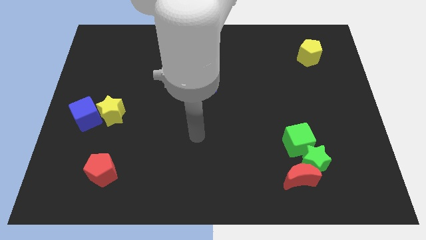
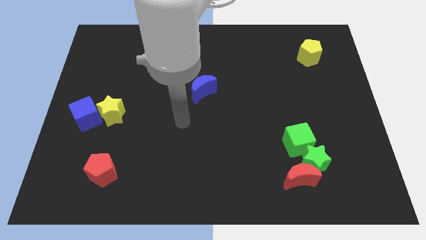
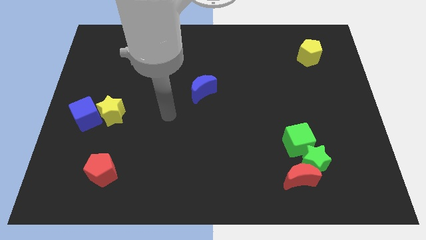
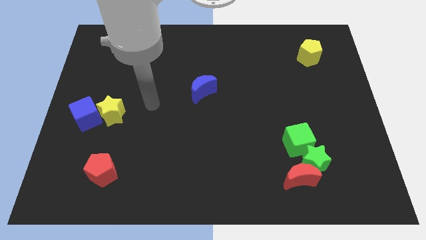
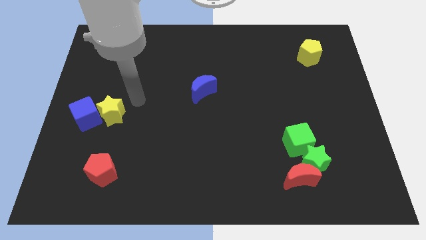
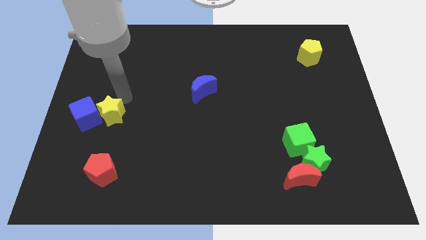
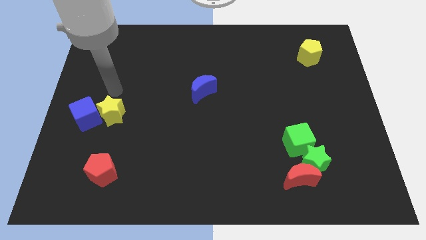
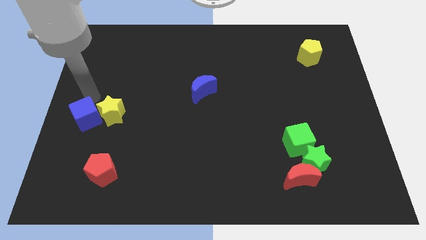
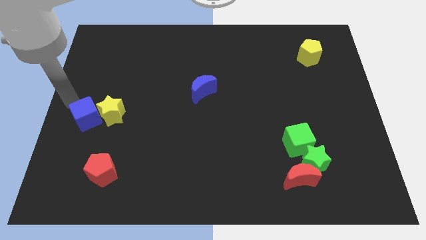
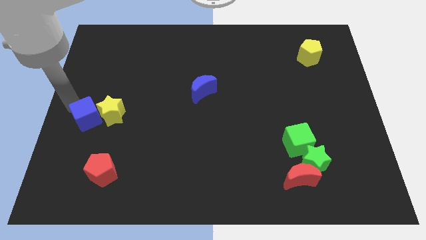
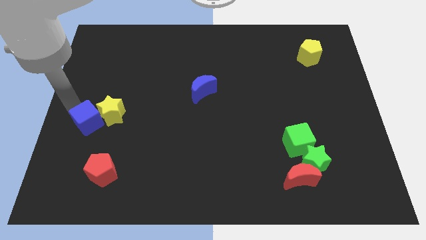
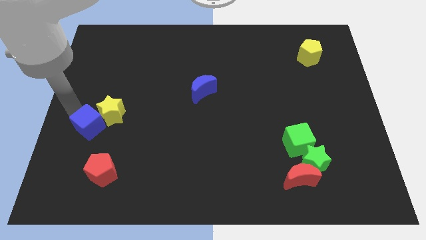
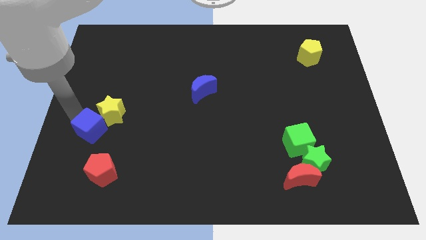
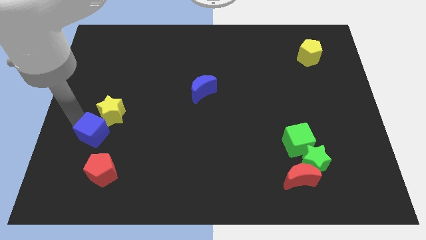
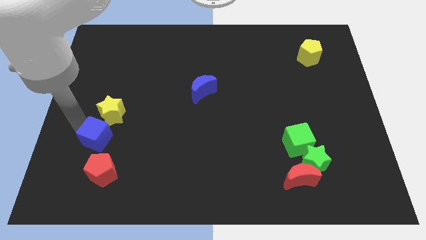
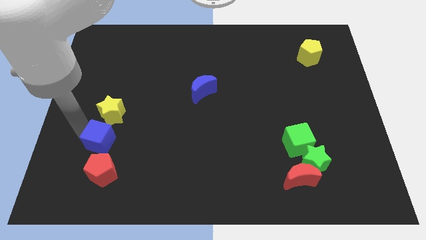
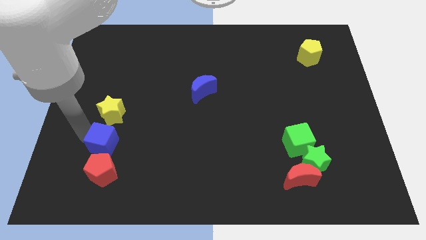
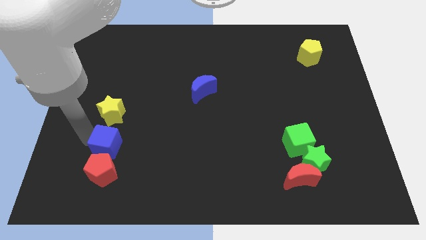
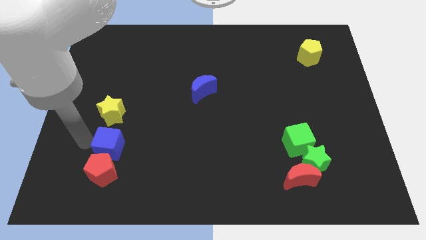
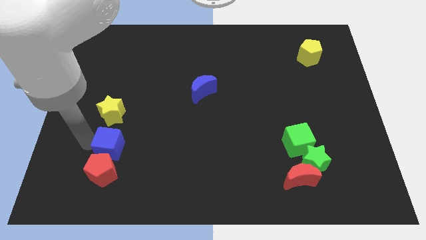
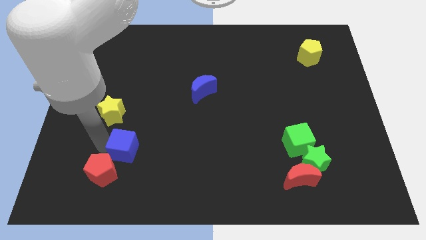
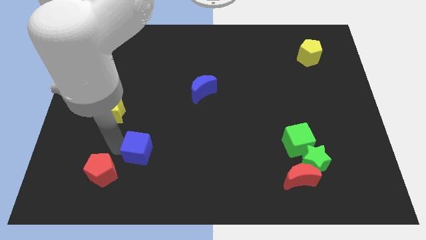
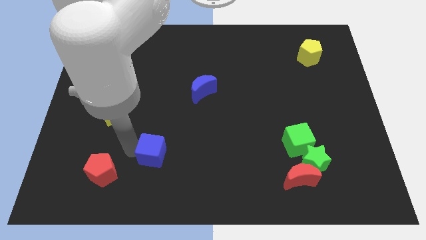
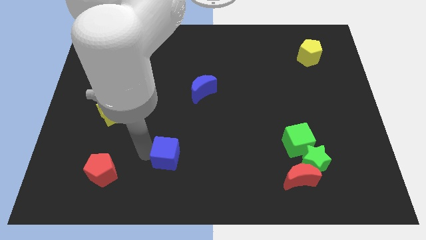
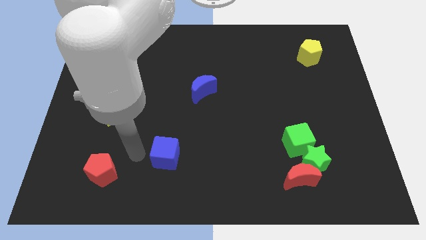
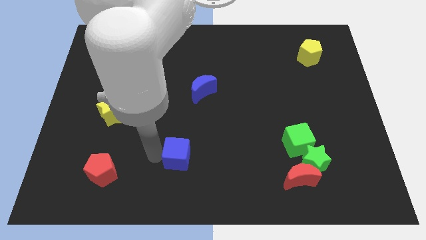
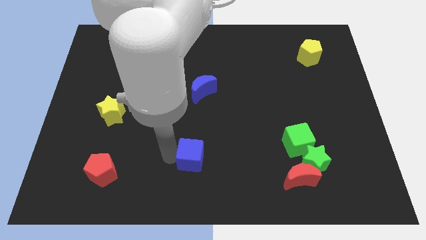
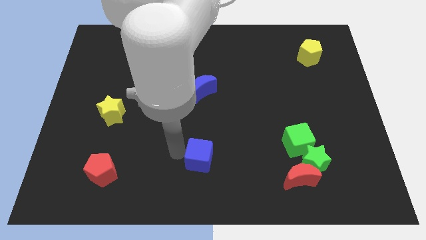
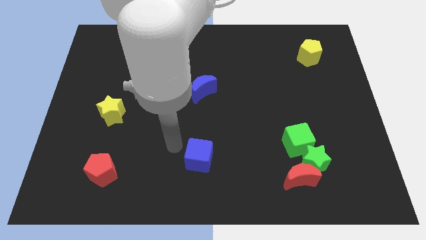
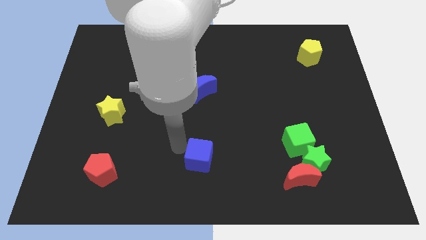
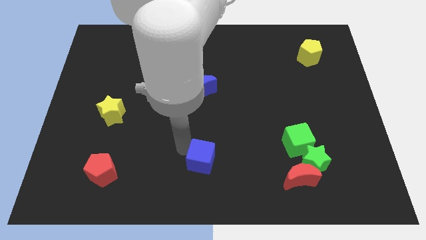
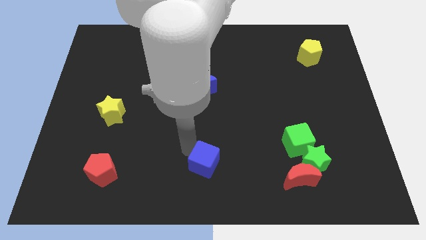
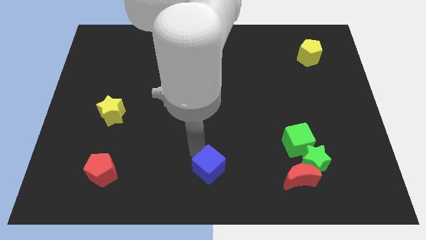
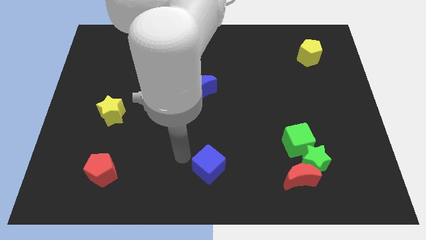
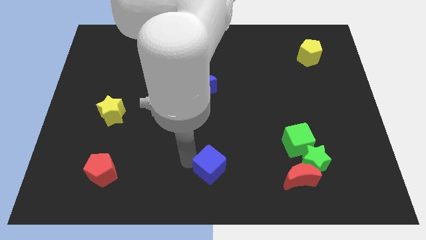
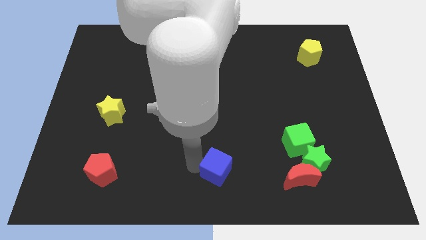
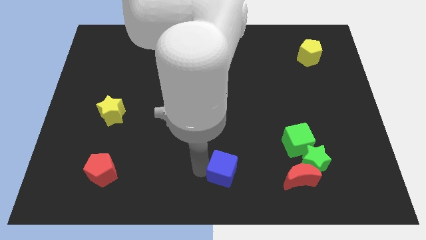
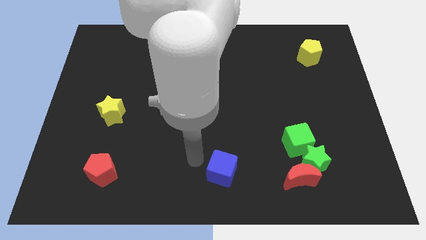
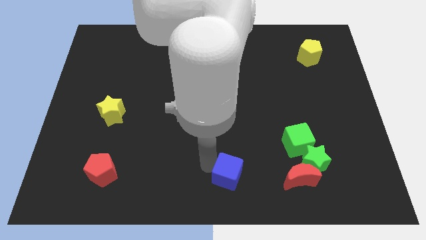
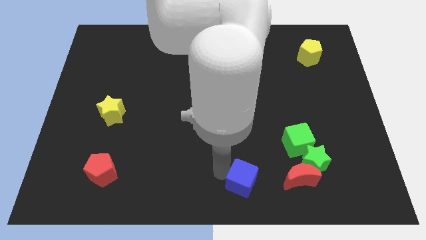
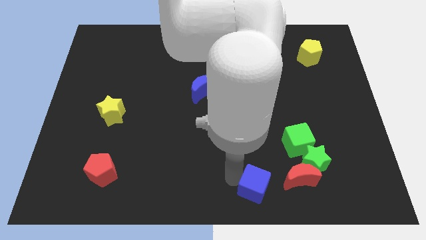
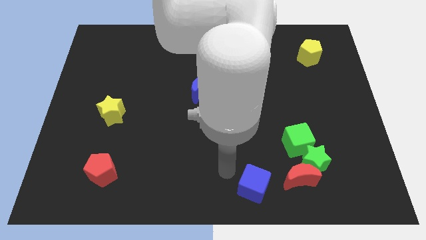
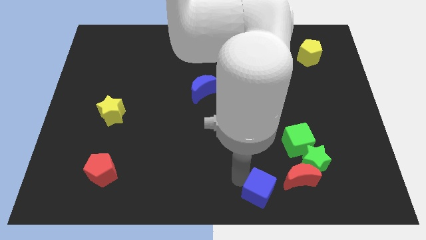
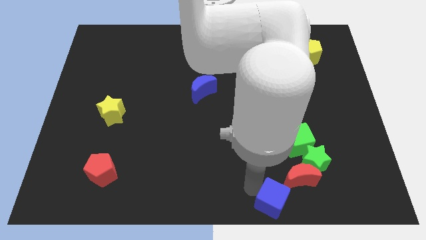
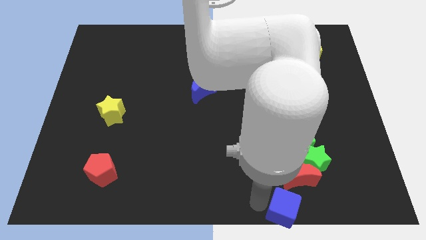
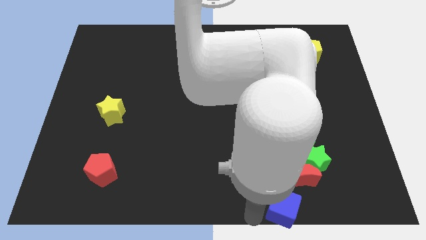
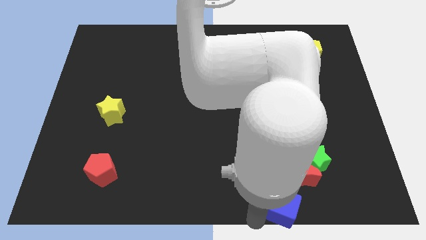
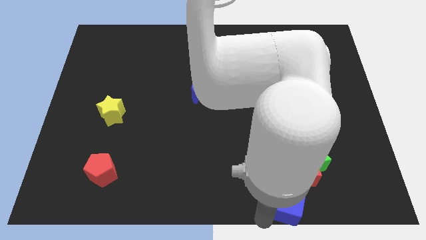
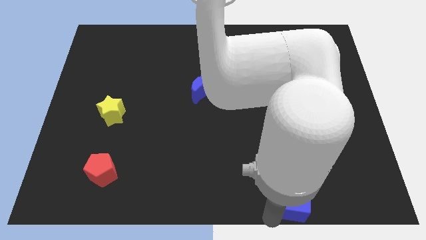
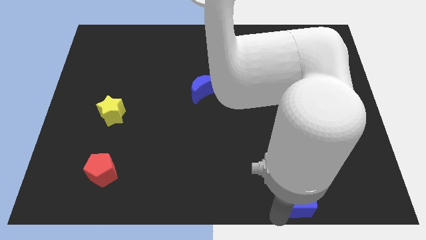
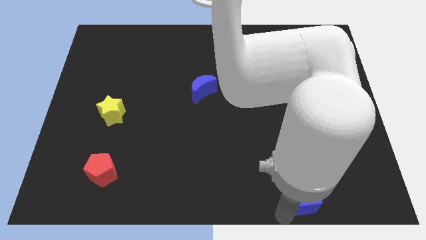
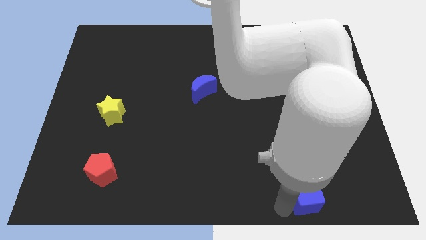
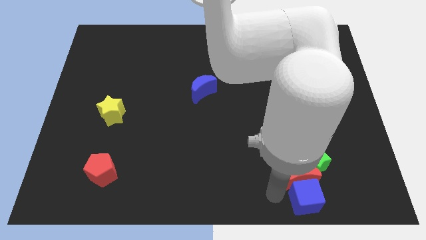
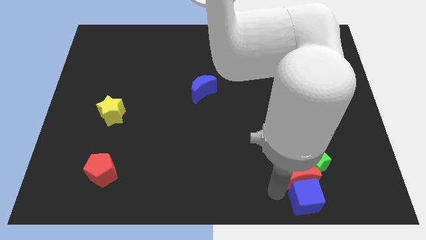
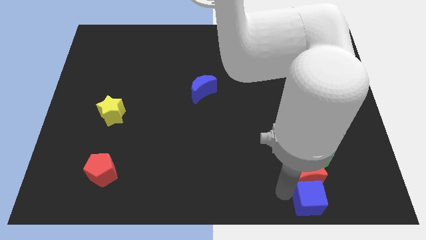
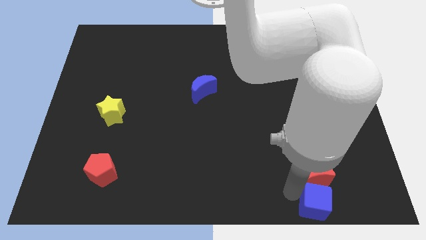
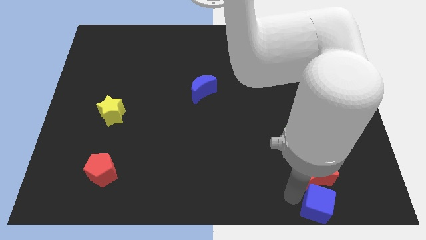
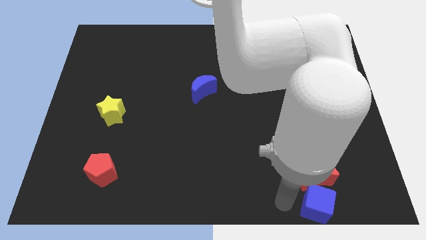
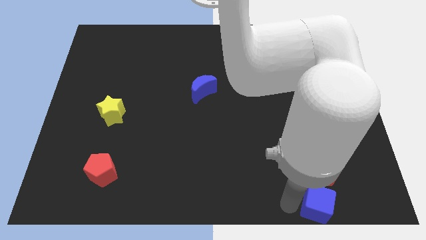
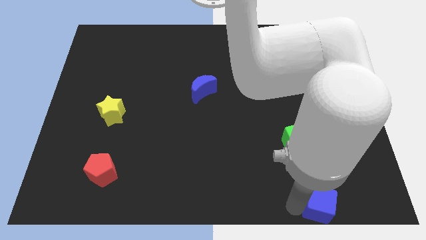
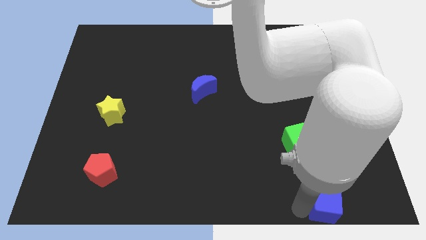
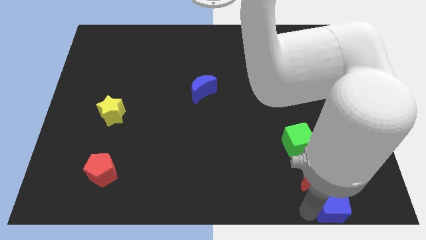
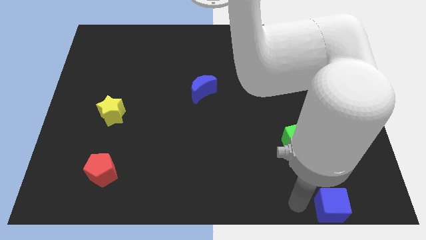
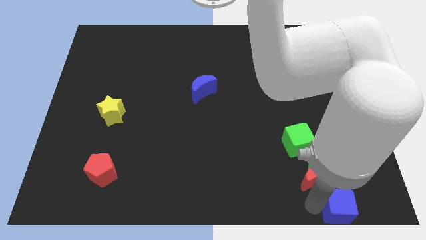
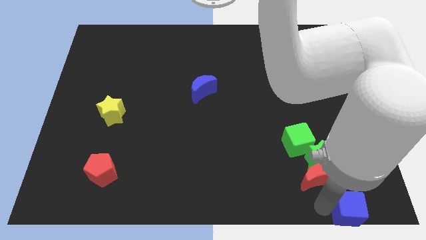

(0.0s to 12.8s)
move the blue cube to the bottom right corner
